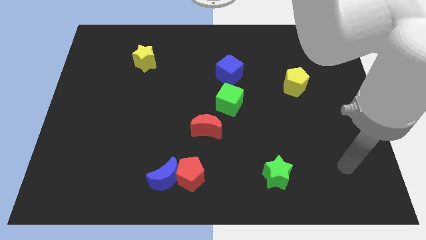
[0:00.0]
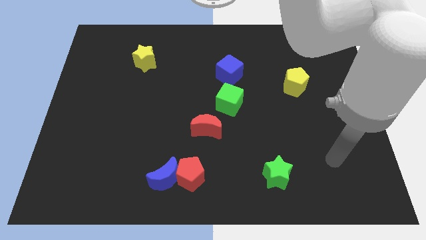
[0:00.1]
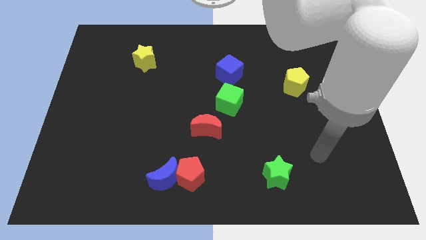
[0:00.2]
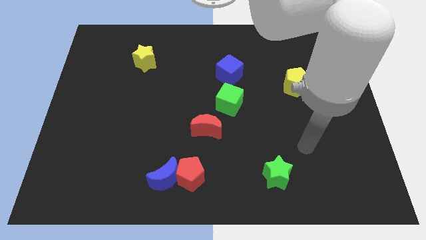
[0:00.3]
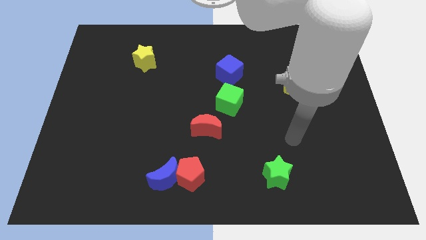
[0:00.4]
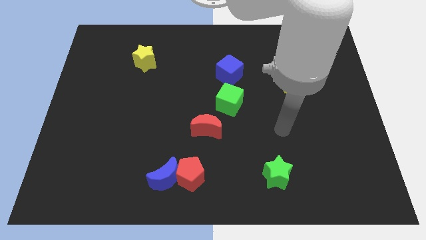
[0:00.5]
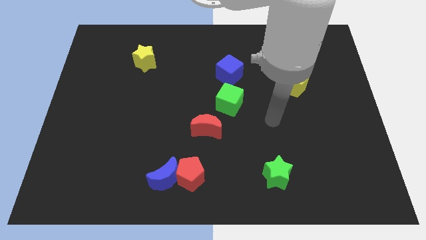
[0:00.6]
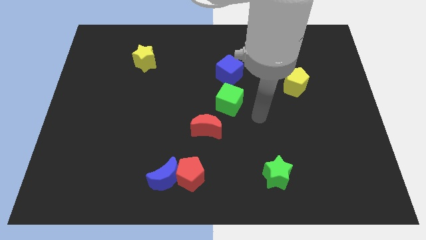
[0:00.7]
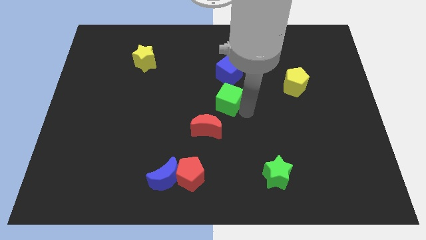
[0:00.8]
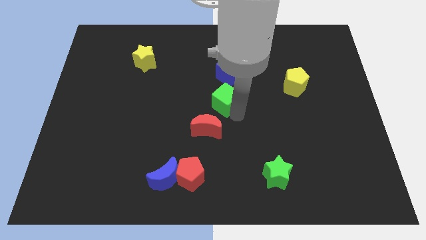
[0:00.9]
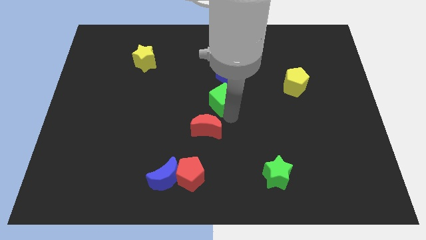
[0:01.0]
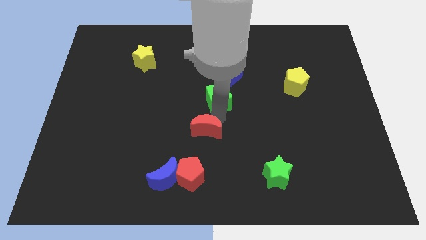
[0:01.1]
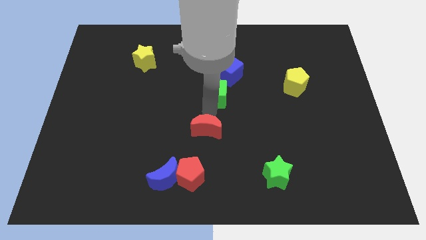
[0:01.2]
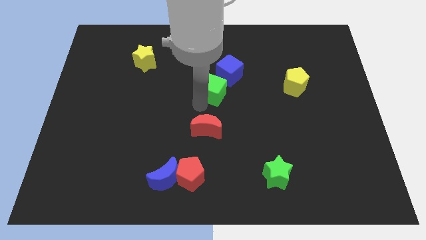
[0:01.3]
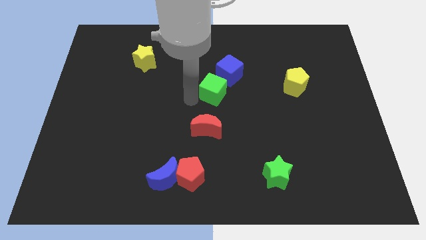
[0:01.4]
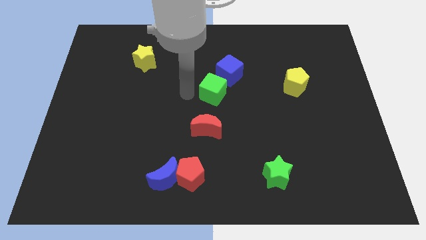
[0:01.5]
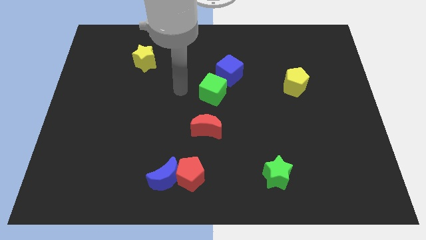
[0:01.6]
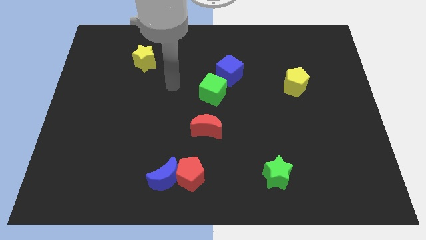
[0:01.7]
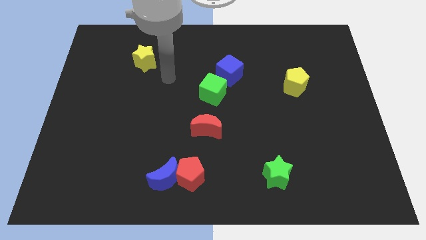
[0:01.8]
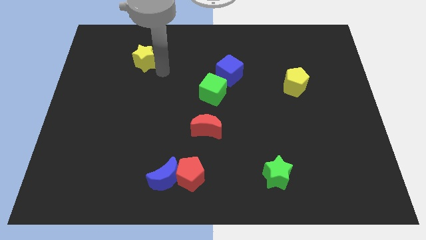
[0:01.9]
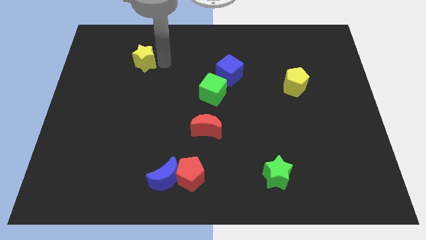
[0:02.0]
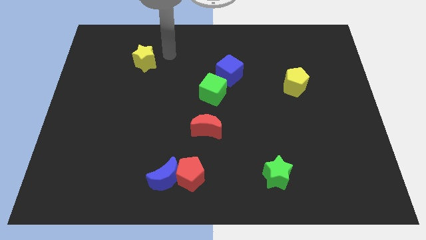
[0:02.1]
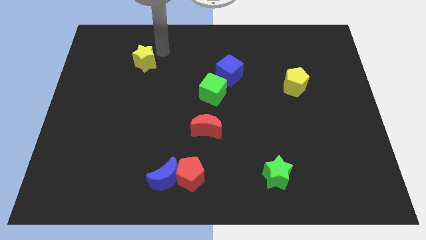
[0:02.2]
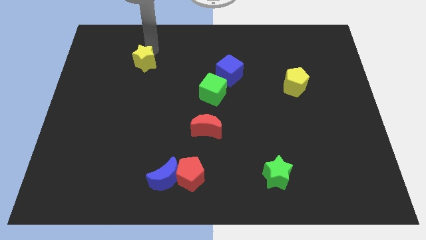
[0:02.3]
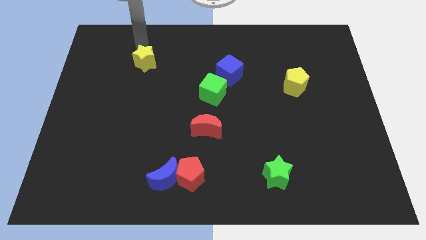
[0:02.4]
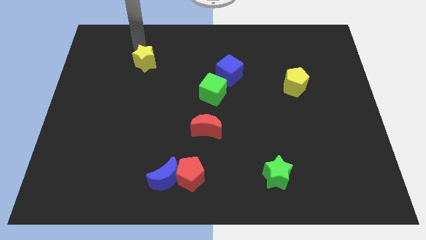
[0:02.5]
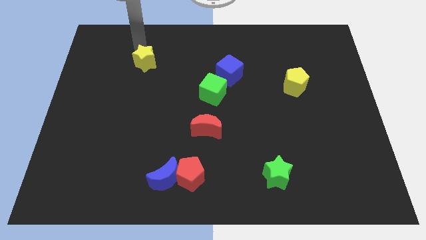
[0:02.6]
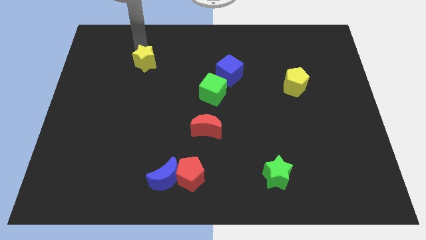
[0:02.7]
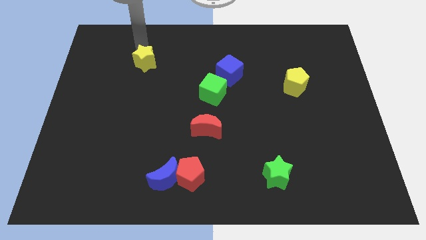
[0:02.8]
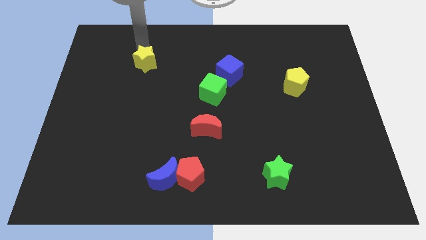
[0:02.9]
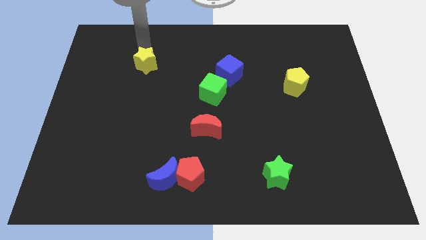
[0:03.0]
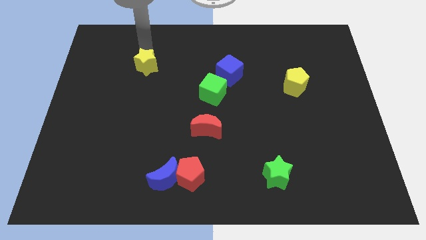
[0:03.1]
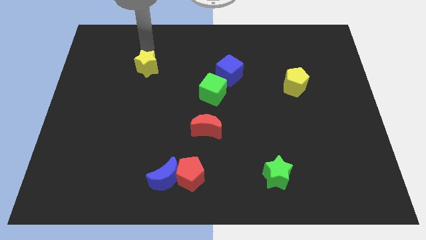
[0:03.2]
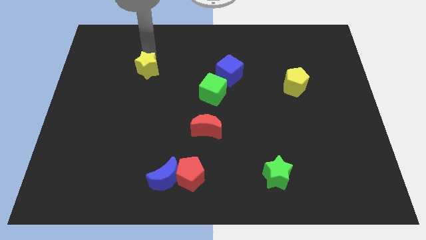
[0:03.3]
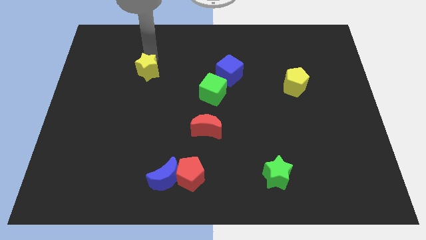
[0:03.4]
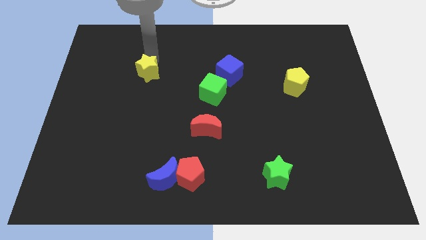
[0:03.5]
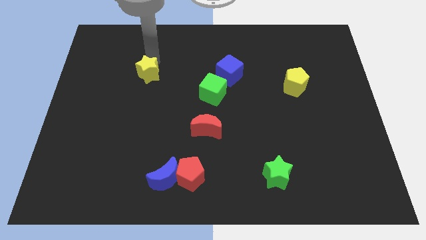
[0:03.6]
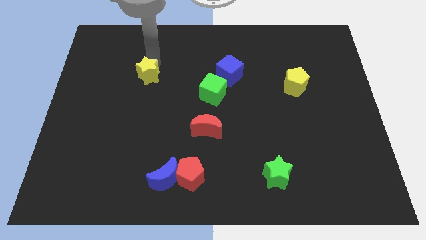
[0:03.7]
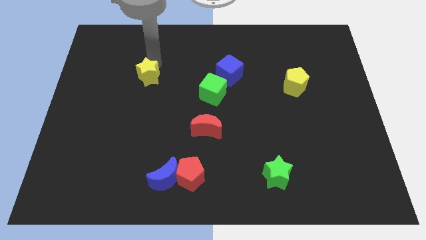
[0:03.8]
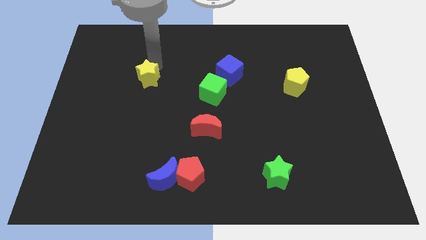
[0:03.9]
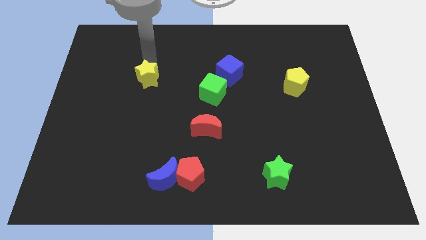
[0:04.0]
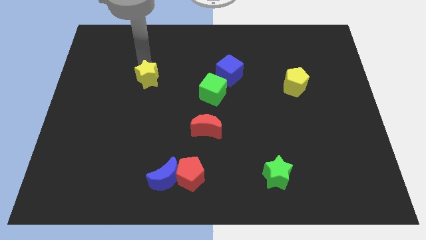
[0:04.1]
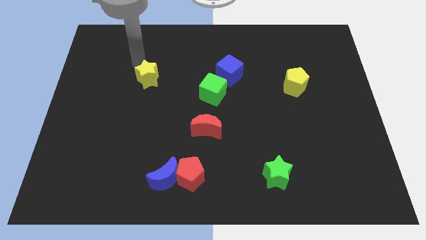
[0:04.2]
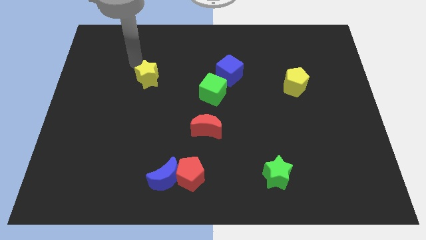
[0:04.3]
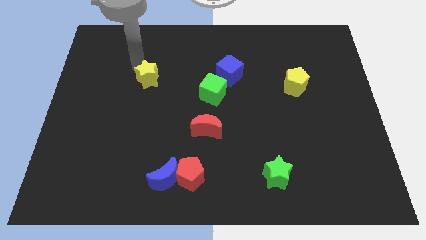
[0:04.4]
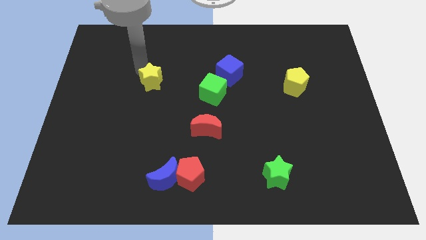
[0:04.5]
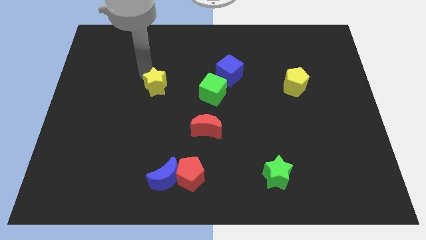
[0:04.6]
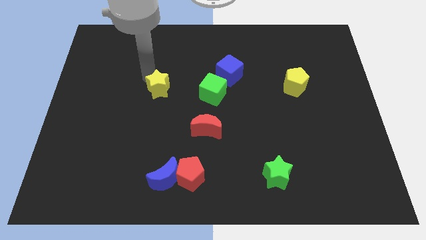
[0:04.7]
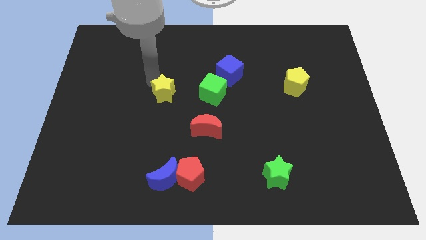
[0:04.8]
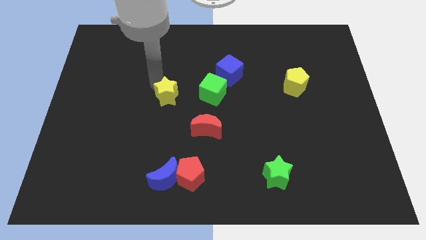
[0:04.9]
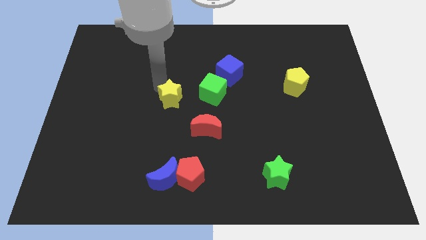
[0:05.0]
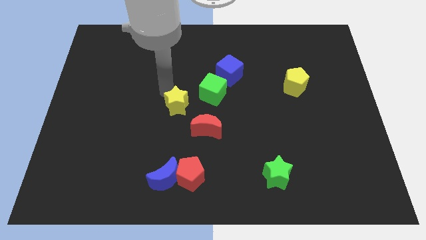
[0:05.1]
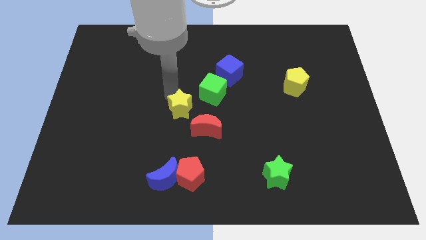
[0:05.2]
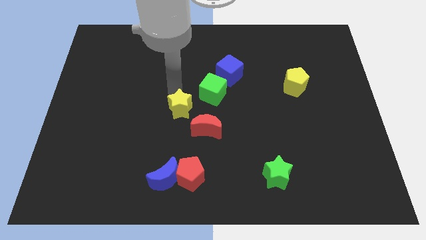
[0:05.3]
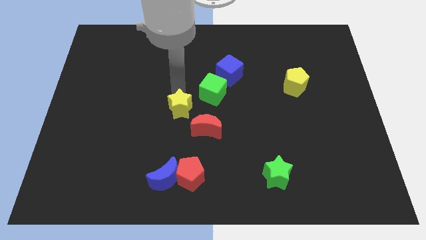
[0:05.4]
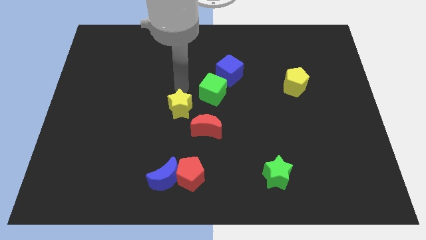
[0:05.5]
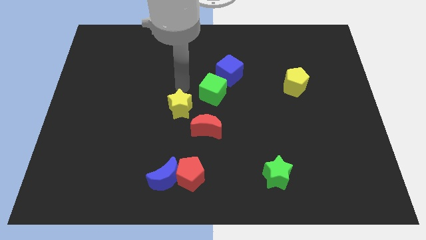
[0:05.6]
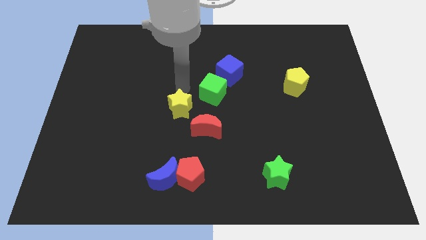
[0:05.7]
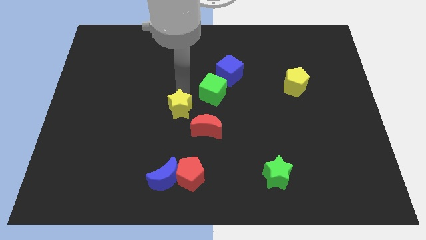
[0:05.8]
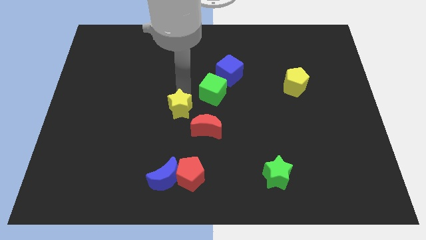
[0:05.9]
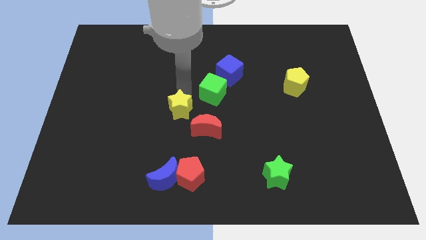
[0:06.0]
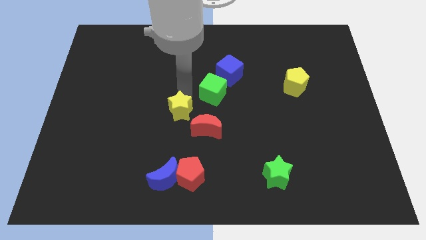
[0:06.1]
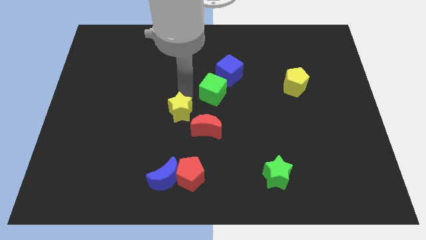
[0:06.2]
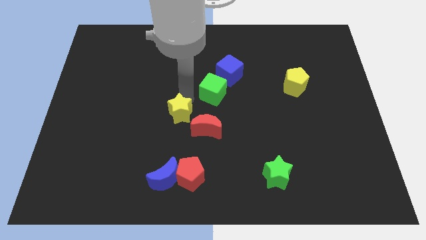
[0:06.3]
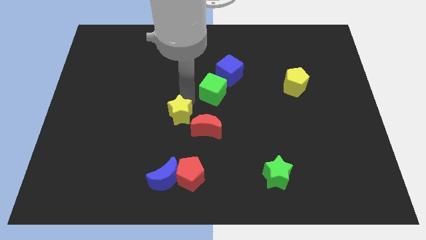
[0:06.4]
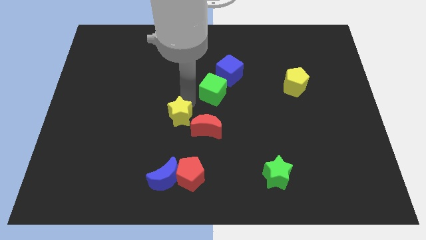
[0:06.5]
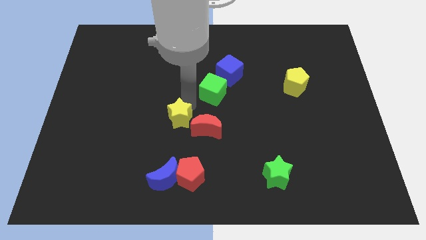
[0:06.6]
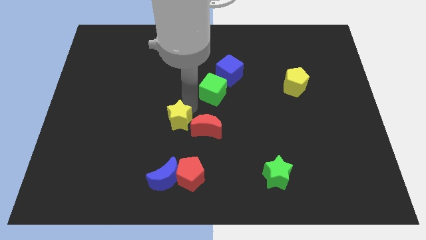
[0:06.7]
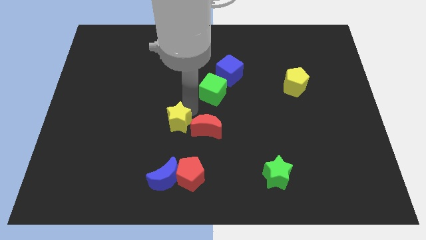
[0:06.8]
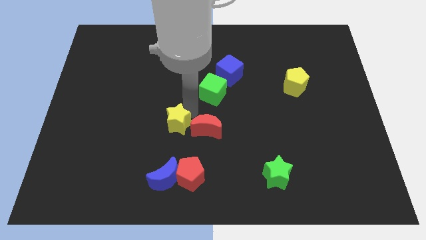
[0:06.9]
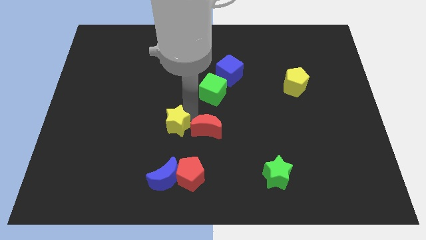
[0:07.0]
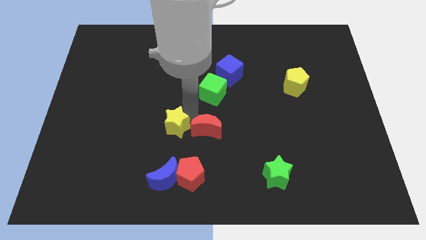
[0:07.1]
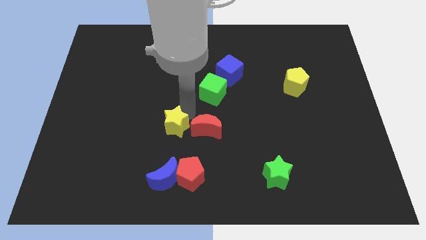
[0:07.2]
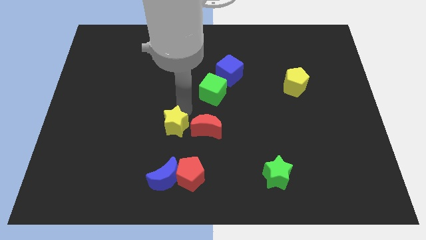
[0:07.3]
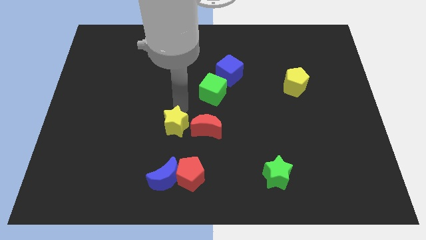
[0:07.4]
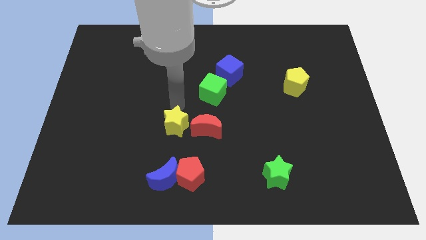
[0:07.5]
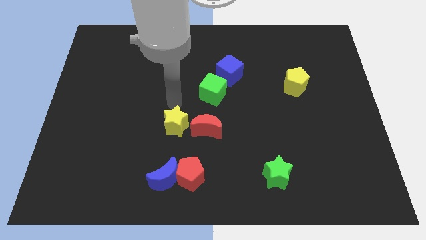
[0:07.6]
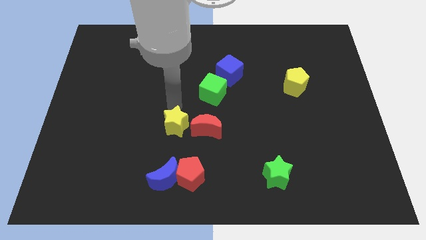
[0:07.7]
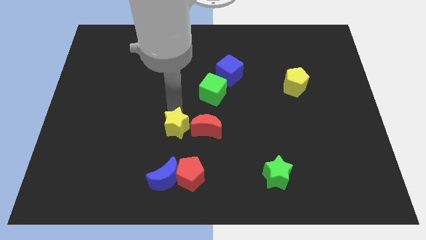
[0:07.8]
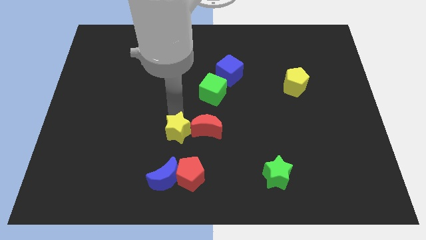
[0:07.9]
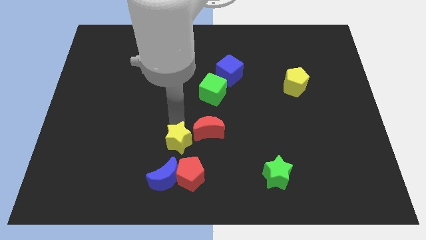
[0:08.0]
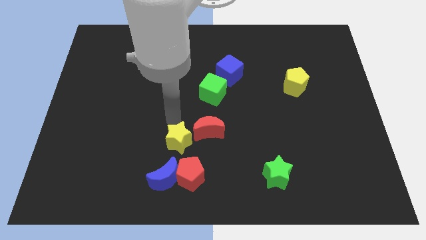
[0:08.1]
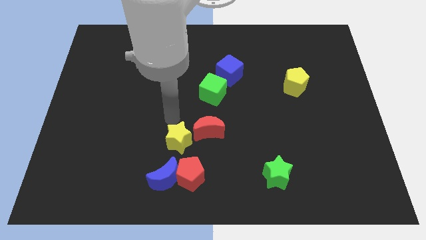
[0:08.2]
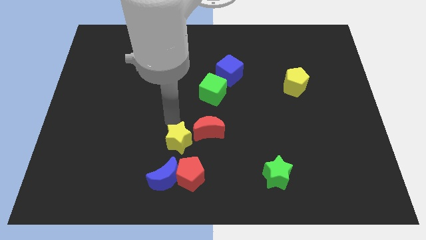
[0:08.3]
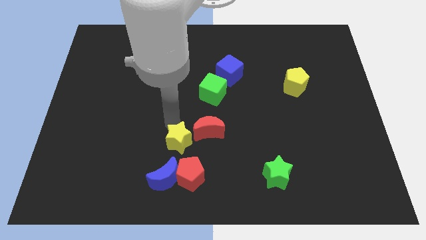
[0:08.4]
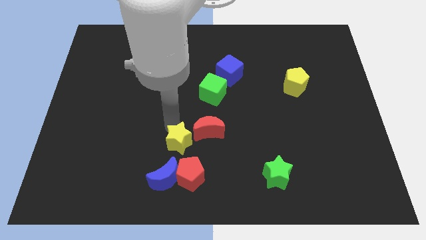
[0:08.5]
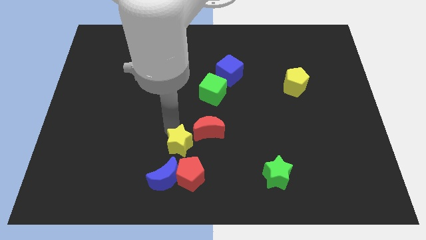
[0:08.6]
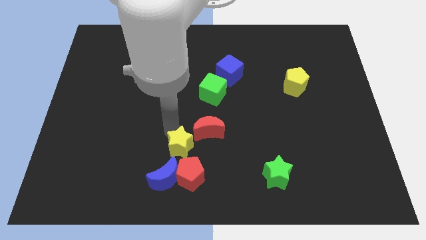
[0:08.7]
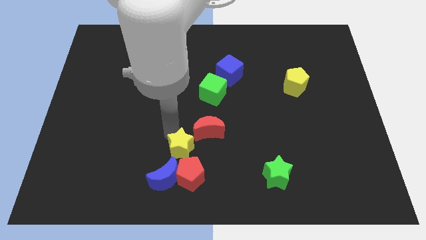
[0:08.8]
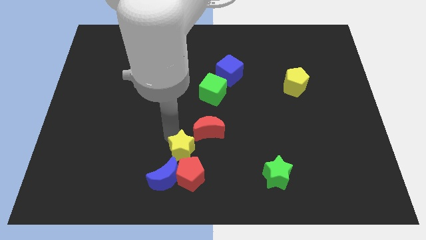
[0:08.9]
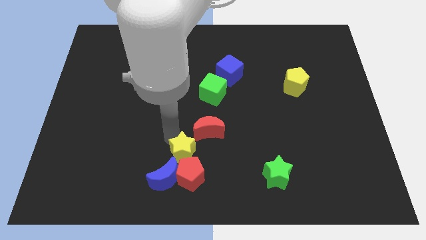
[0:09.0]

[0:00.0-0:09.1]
push the yellow star close to the red pentagon
